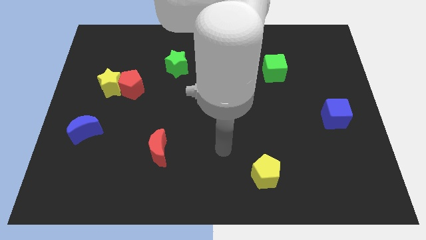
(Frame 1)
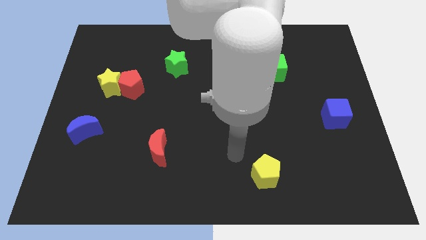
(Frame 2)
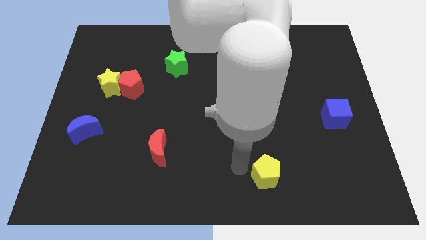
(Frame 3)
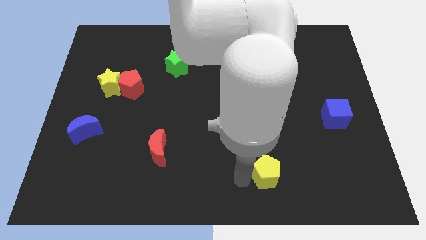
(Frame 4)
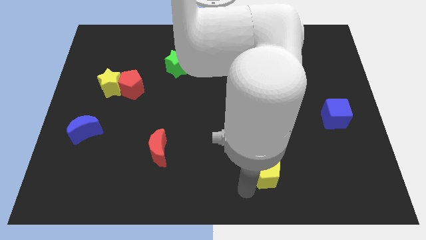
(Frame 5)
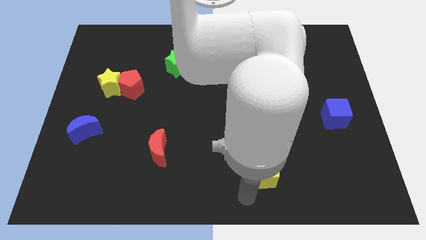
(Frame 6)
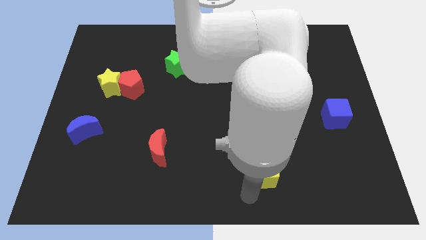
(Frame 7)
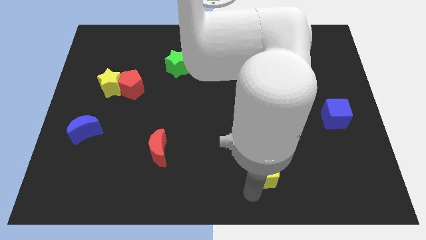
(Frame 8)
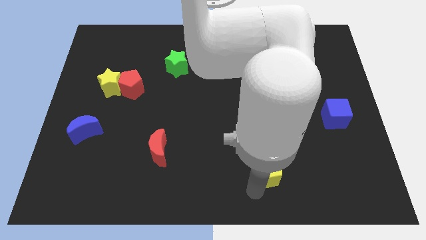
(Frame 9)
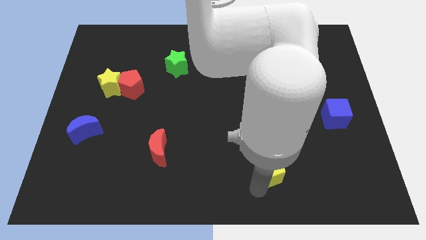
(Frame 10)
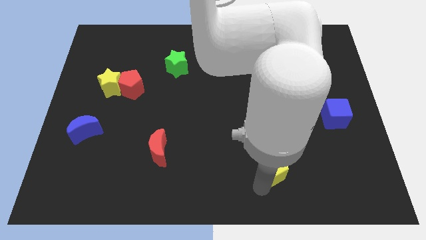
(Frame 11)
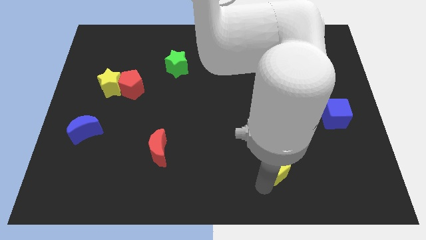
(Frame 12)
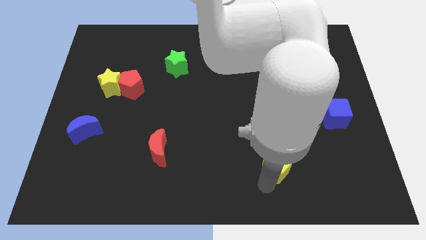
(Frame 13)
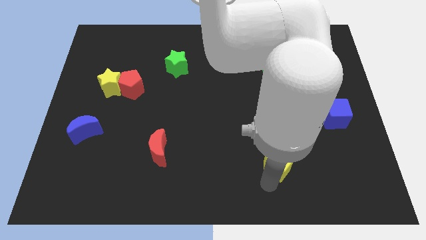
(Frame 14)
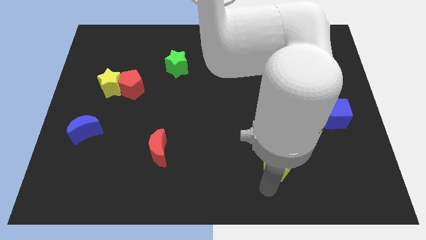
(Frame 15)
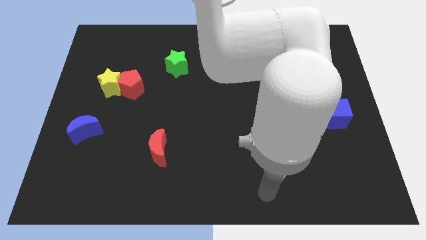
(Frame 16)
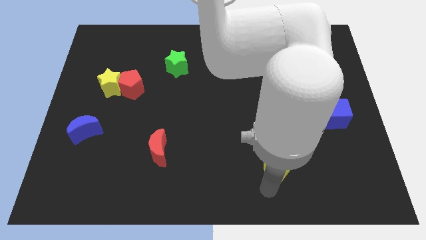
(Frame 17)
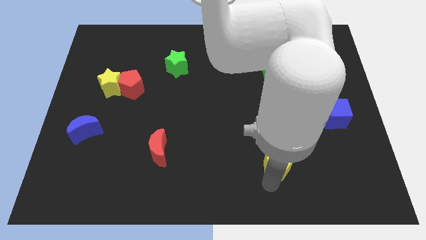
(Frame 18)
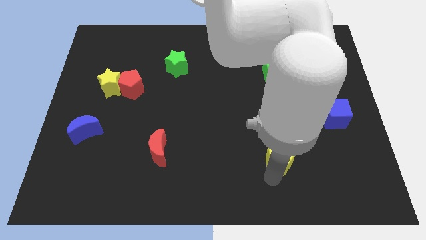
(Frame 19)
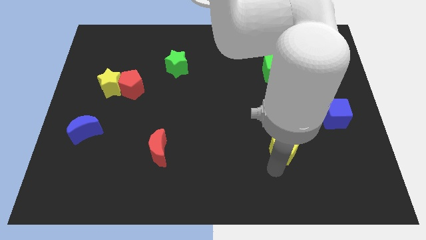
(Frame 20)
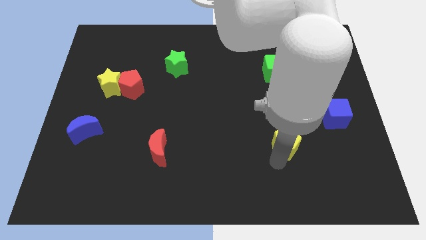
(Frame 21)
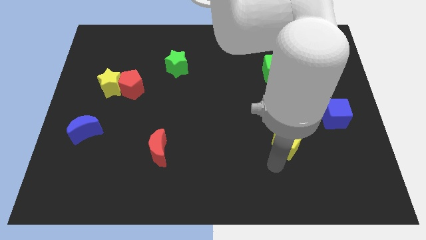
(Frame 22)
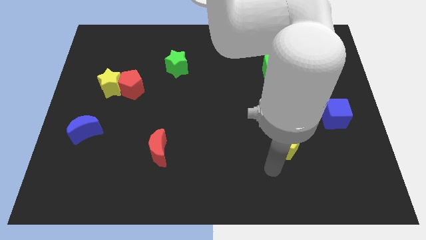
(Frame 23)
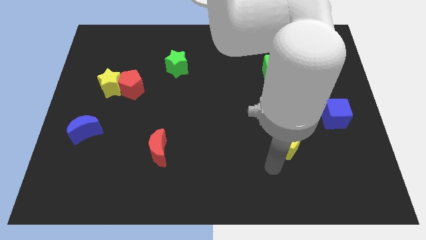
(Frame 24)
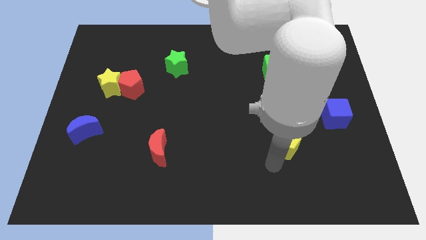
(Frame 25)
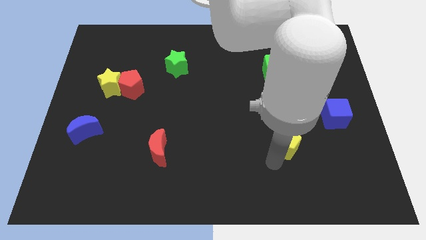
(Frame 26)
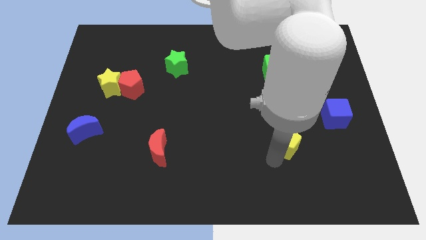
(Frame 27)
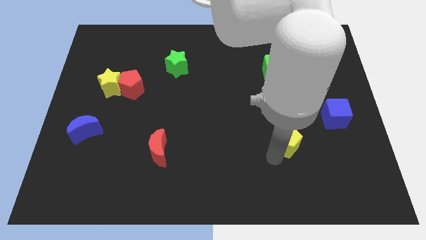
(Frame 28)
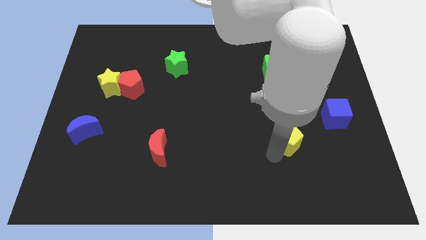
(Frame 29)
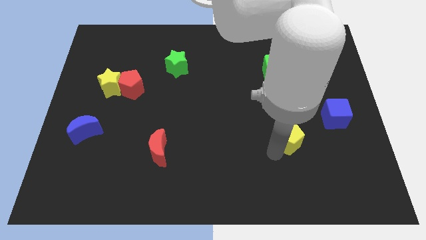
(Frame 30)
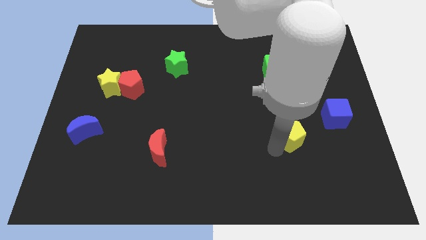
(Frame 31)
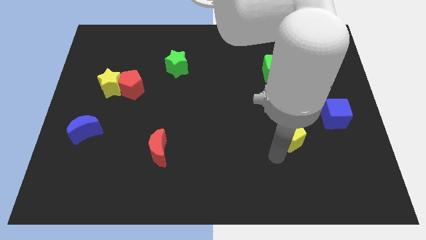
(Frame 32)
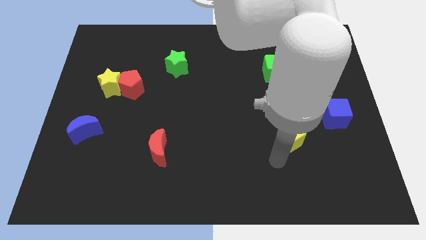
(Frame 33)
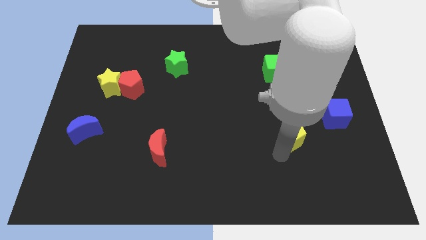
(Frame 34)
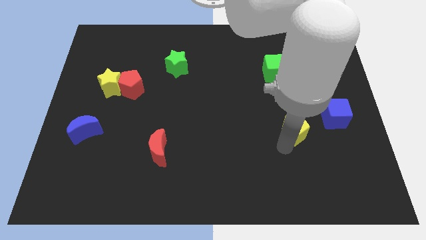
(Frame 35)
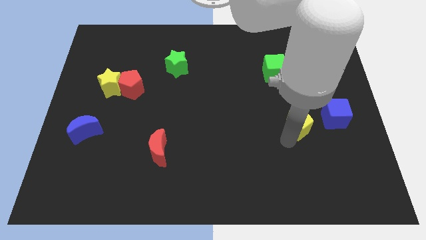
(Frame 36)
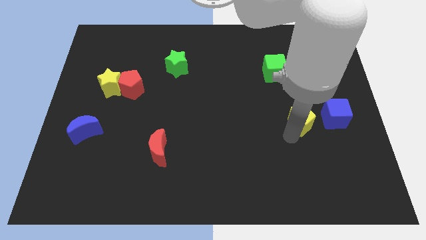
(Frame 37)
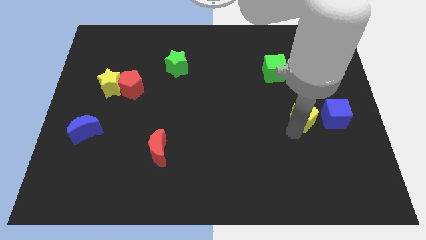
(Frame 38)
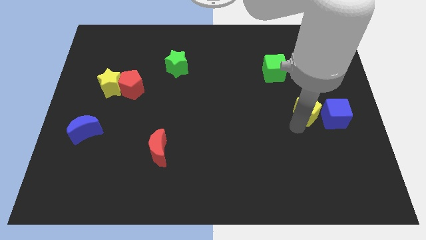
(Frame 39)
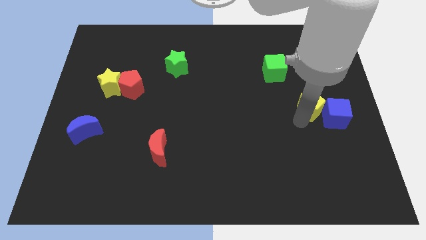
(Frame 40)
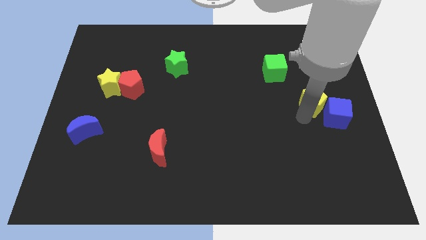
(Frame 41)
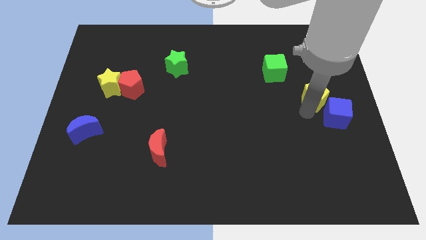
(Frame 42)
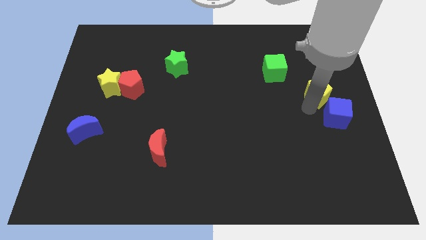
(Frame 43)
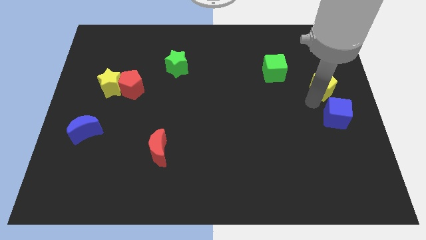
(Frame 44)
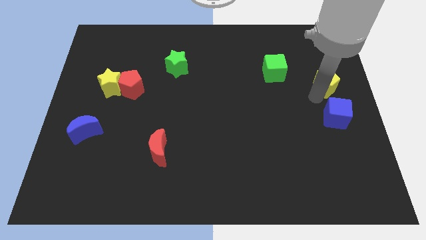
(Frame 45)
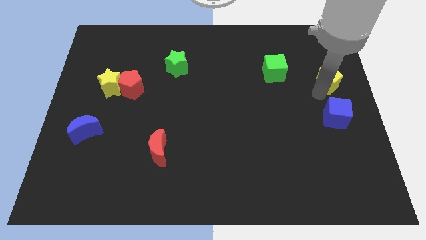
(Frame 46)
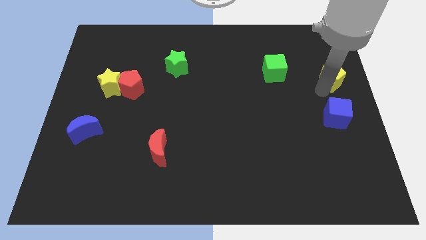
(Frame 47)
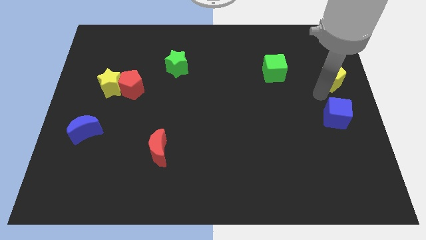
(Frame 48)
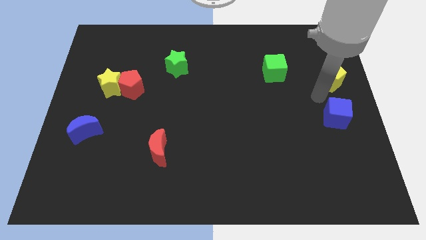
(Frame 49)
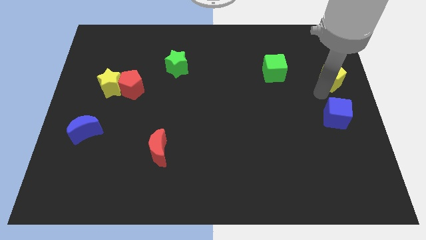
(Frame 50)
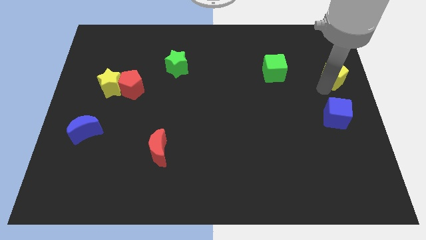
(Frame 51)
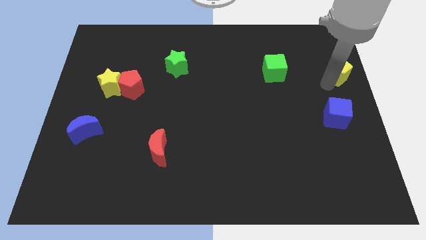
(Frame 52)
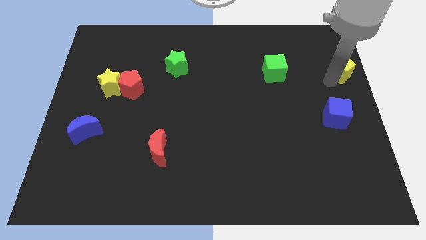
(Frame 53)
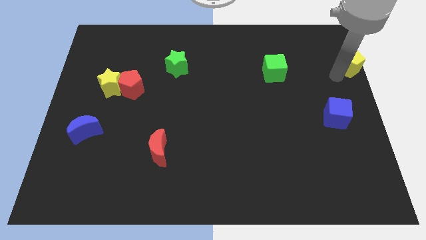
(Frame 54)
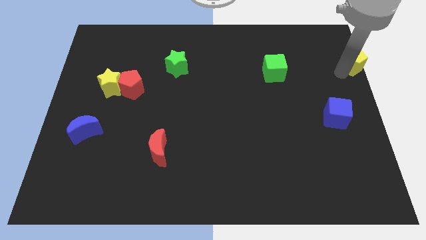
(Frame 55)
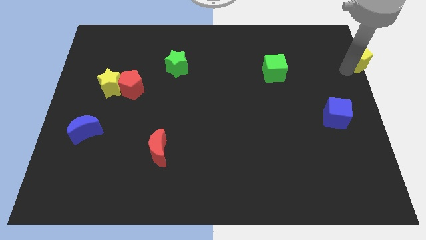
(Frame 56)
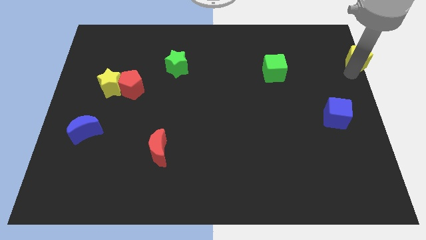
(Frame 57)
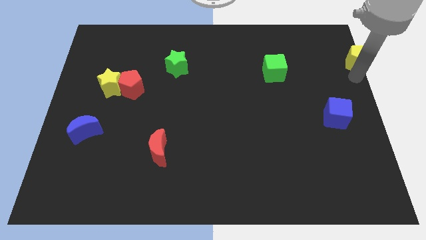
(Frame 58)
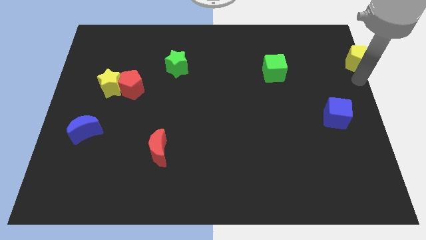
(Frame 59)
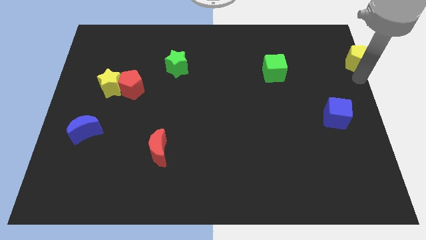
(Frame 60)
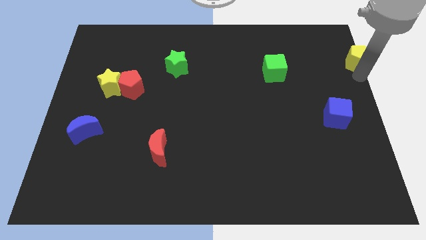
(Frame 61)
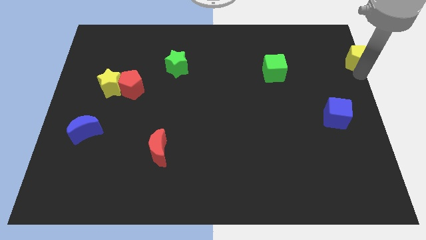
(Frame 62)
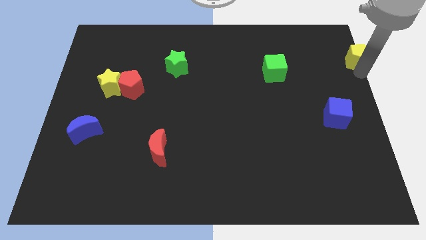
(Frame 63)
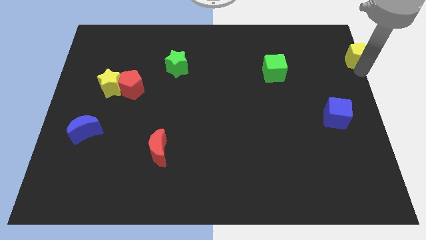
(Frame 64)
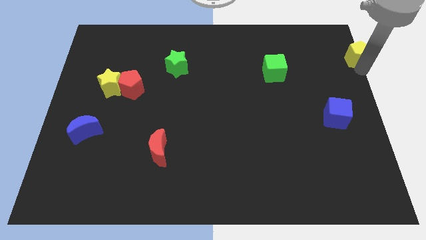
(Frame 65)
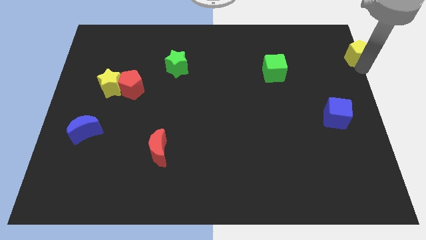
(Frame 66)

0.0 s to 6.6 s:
put the yellow pentagon to the top right

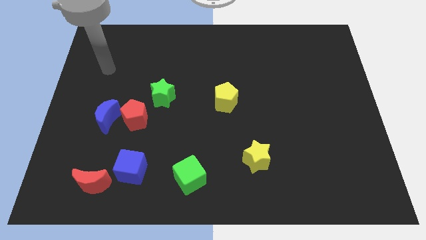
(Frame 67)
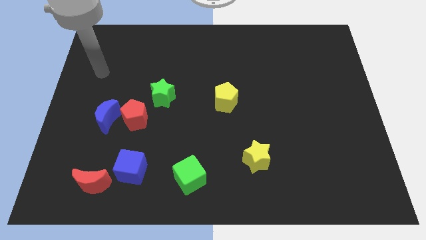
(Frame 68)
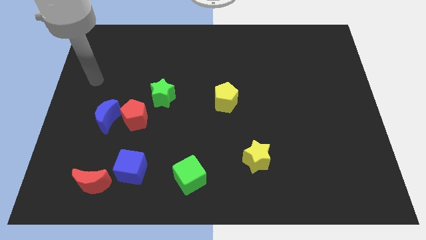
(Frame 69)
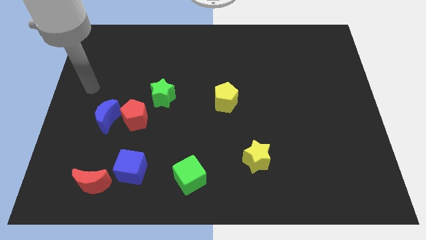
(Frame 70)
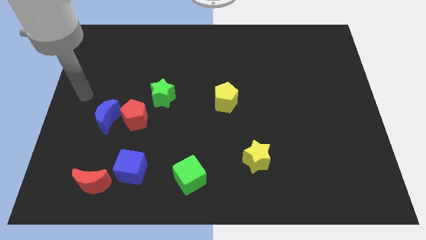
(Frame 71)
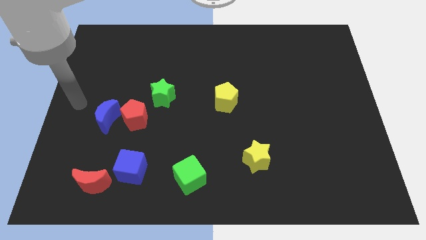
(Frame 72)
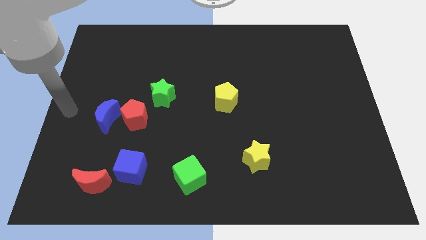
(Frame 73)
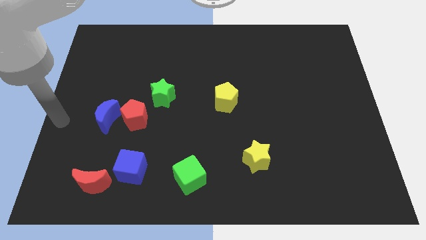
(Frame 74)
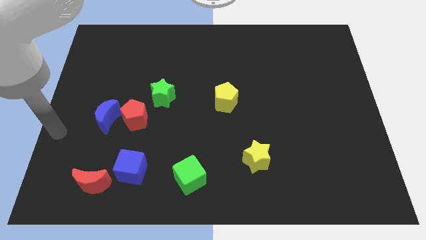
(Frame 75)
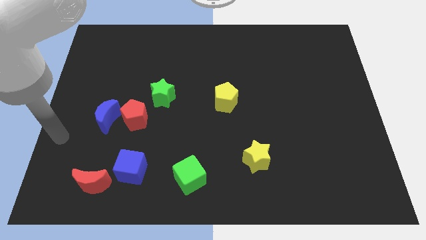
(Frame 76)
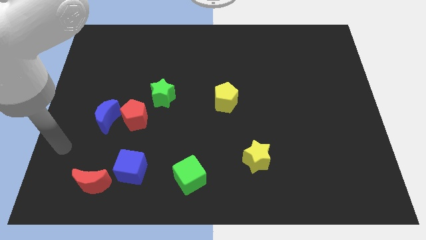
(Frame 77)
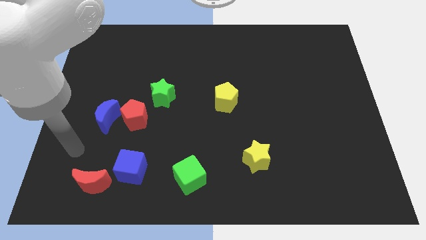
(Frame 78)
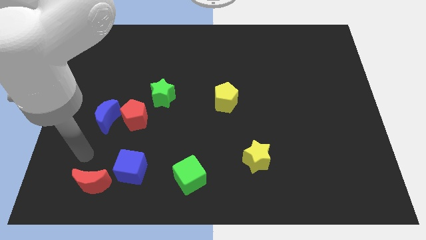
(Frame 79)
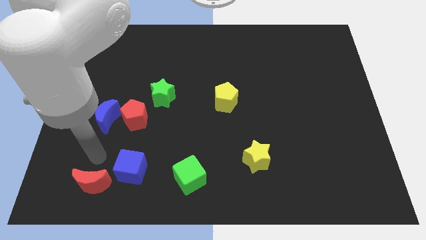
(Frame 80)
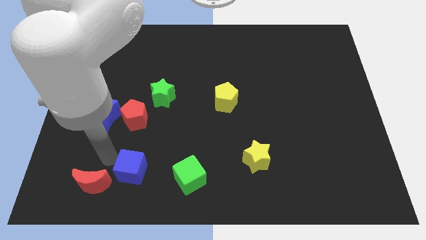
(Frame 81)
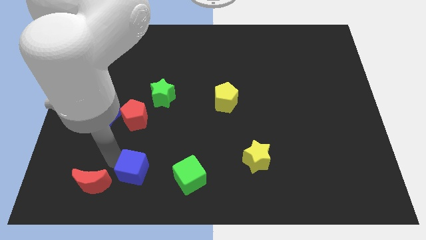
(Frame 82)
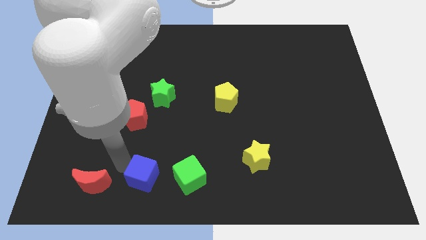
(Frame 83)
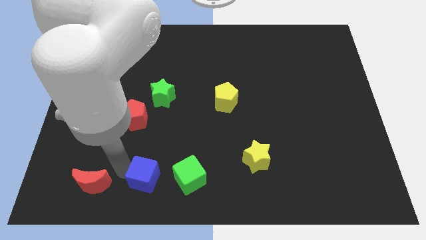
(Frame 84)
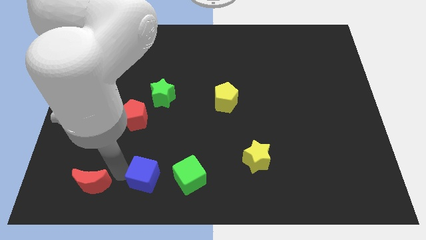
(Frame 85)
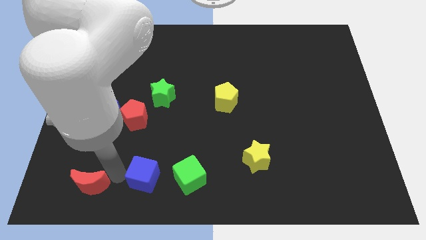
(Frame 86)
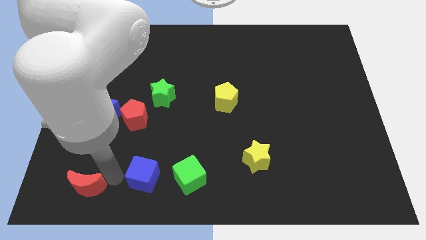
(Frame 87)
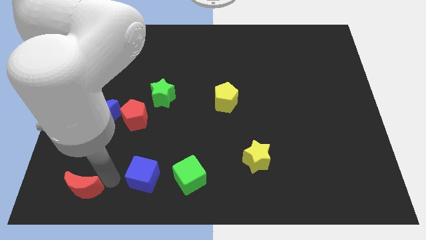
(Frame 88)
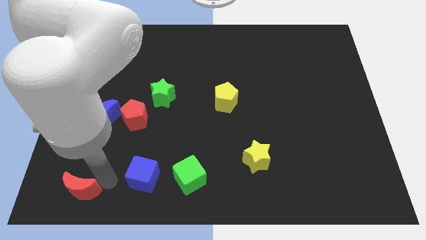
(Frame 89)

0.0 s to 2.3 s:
push the red moon to the bottom left of the board
